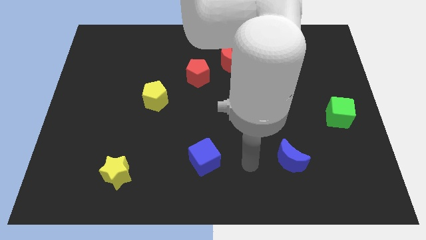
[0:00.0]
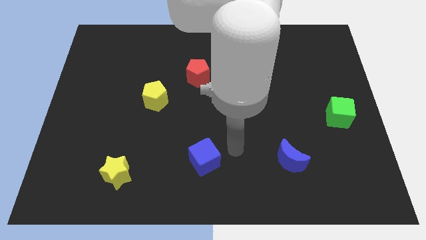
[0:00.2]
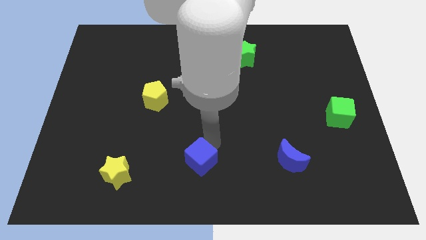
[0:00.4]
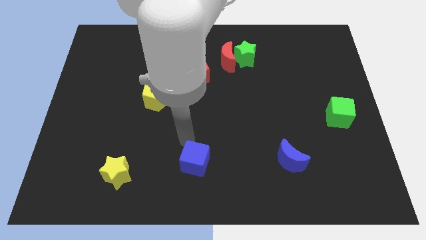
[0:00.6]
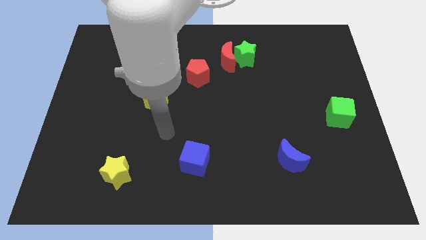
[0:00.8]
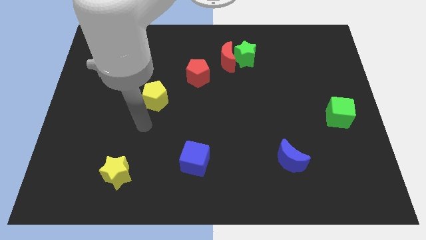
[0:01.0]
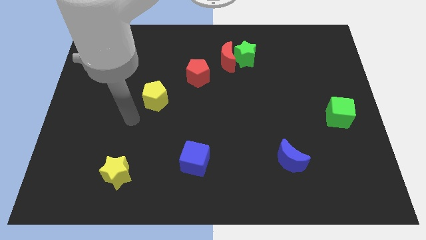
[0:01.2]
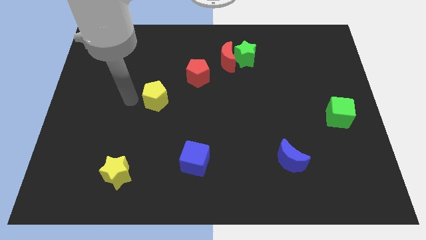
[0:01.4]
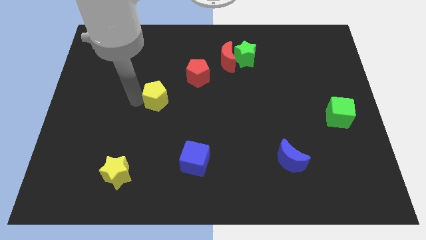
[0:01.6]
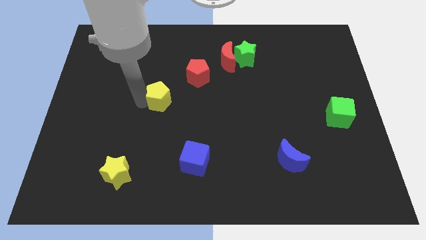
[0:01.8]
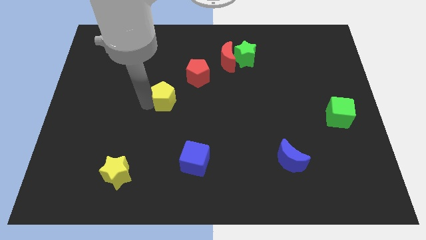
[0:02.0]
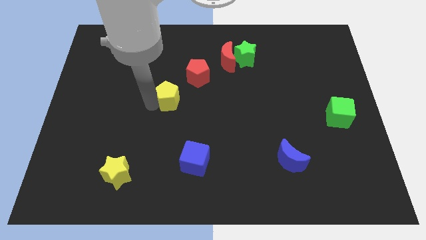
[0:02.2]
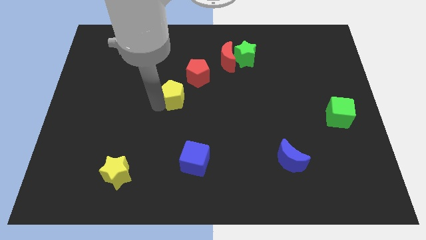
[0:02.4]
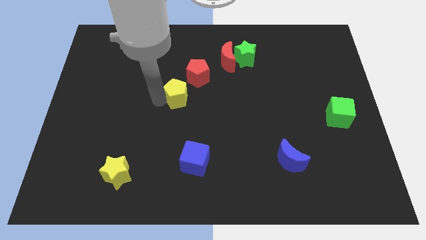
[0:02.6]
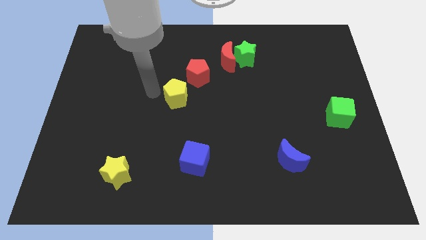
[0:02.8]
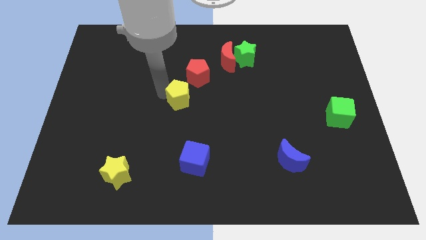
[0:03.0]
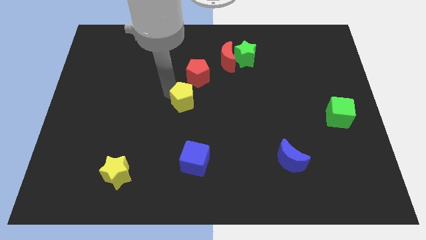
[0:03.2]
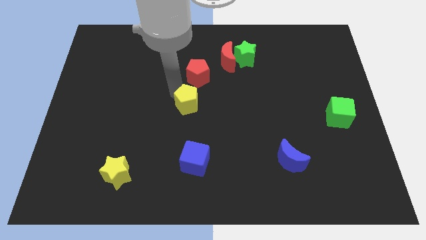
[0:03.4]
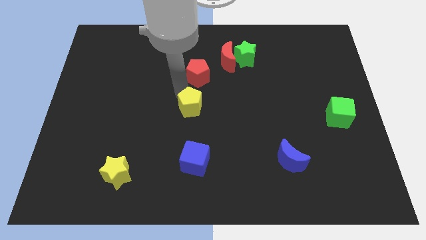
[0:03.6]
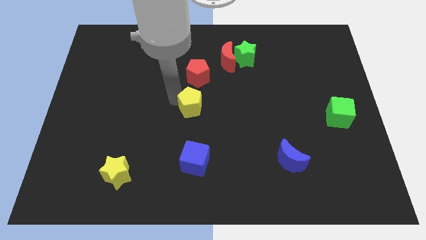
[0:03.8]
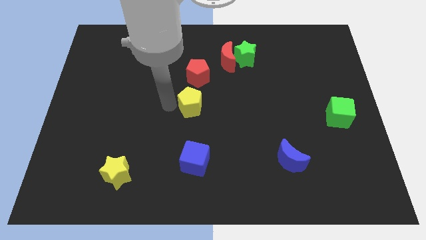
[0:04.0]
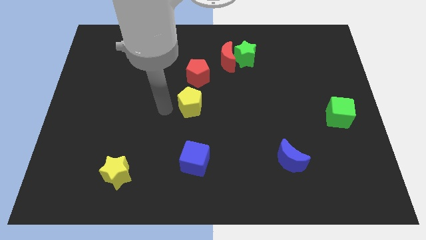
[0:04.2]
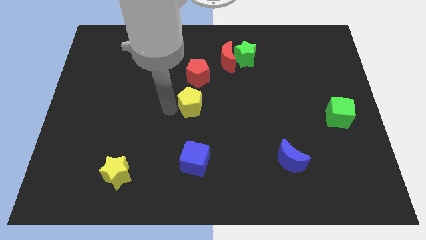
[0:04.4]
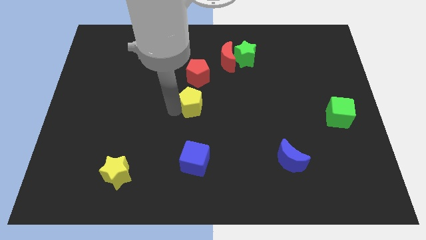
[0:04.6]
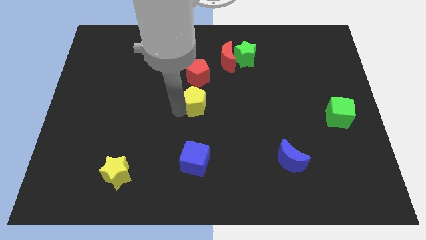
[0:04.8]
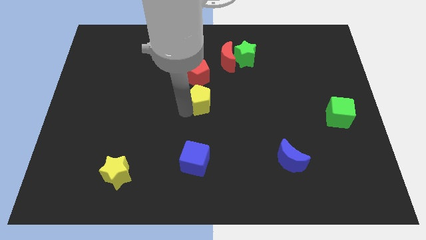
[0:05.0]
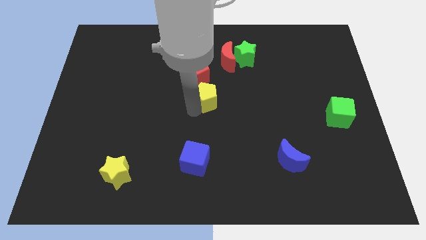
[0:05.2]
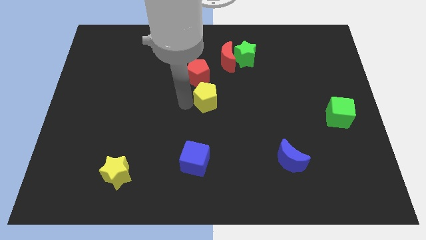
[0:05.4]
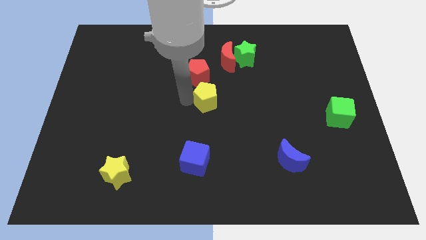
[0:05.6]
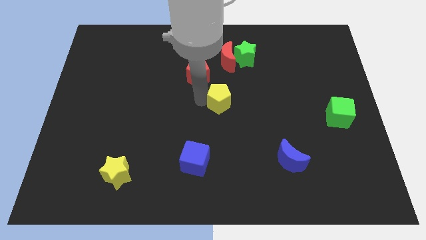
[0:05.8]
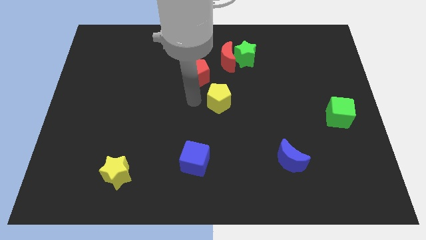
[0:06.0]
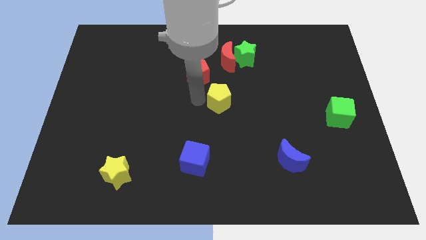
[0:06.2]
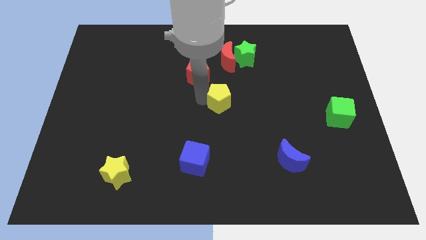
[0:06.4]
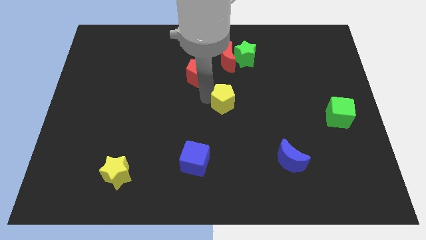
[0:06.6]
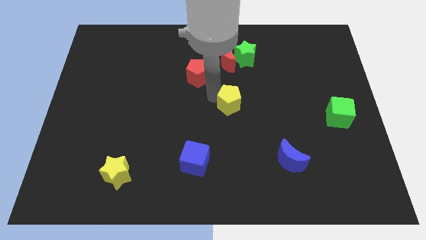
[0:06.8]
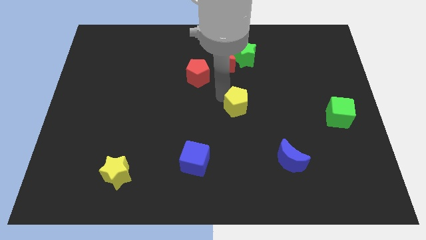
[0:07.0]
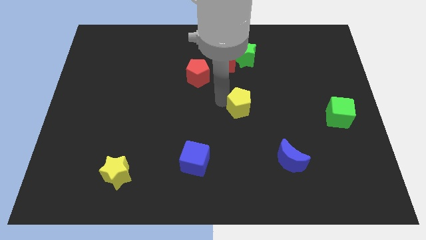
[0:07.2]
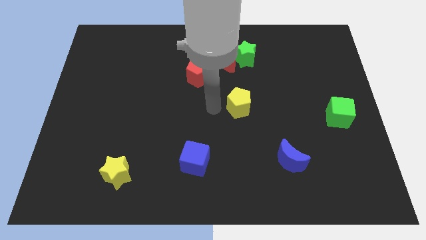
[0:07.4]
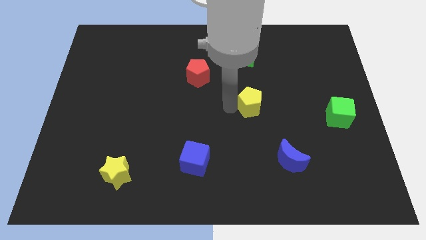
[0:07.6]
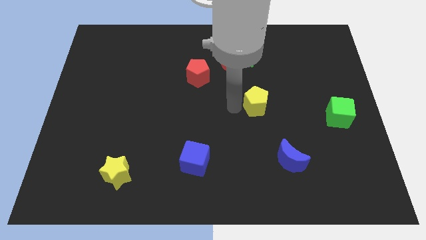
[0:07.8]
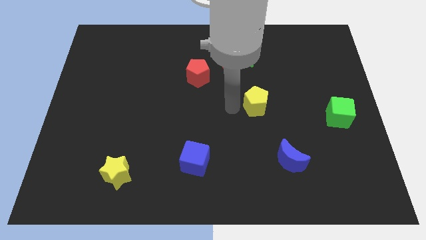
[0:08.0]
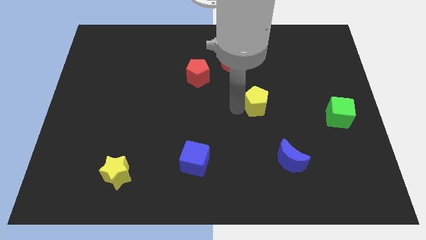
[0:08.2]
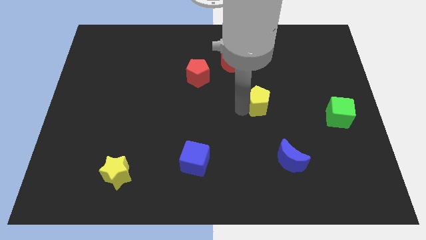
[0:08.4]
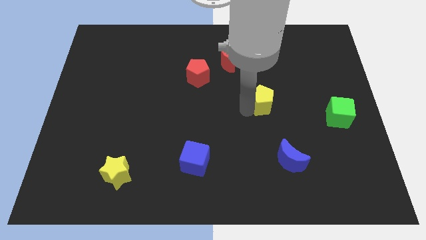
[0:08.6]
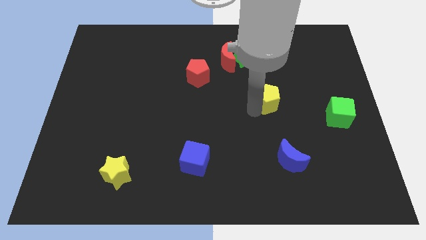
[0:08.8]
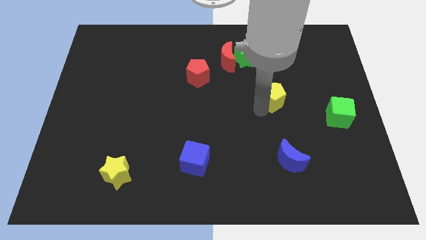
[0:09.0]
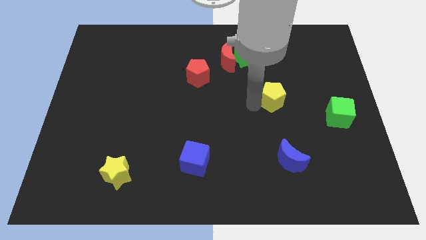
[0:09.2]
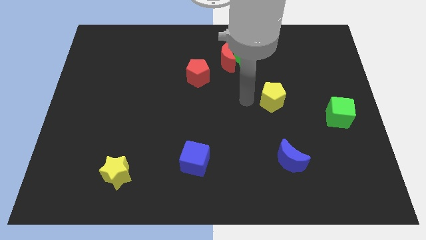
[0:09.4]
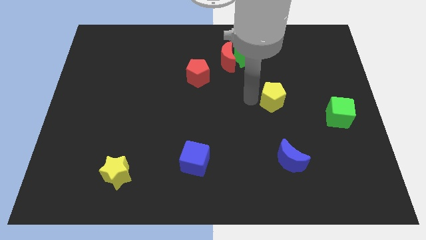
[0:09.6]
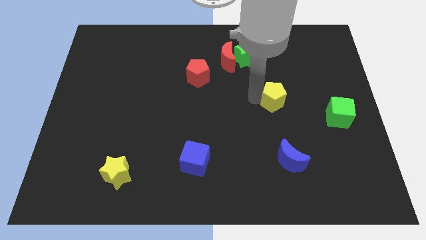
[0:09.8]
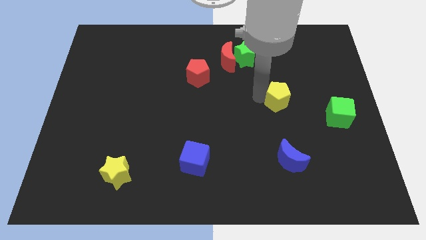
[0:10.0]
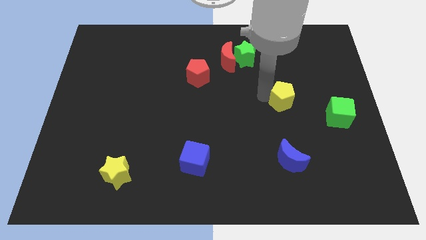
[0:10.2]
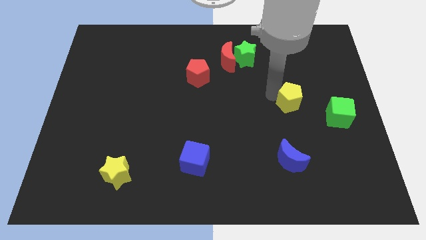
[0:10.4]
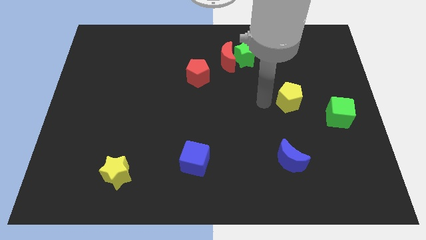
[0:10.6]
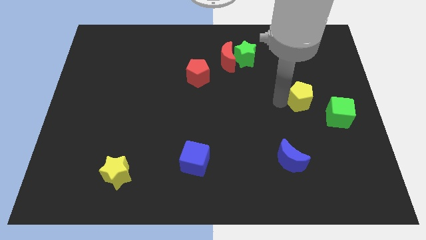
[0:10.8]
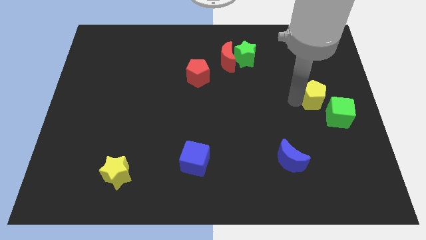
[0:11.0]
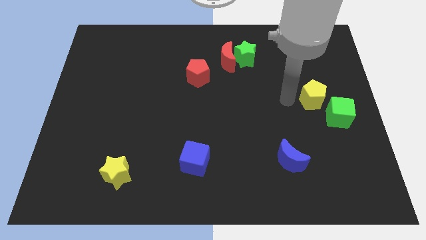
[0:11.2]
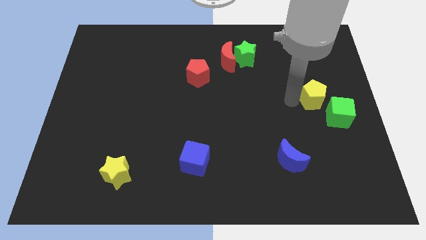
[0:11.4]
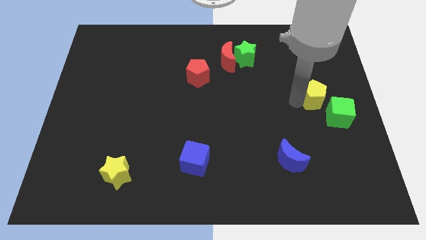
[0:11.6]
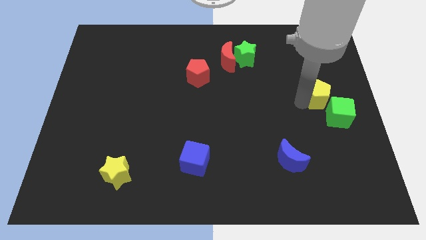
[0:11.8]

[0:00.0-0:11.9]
push the yellow pentagon to the right side of the board
